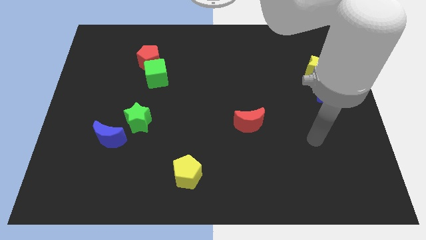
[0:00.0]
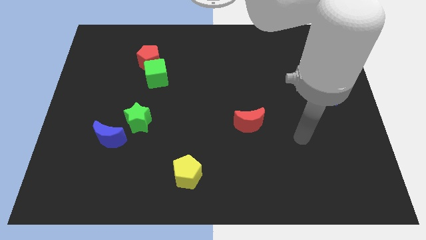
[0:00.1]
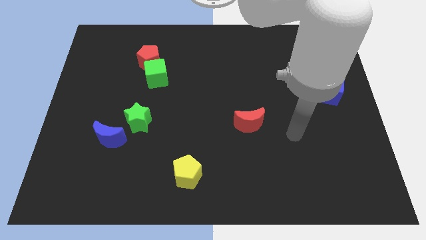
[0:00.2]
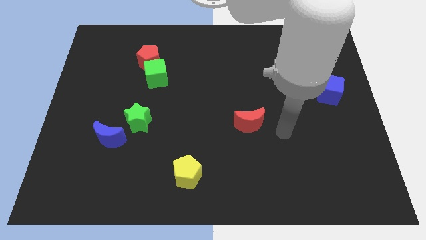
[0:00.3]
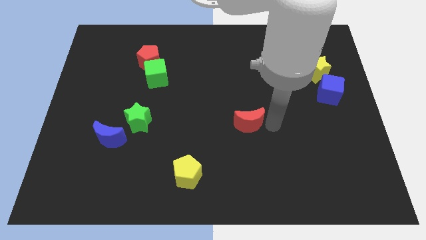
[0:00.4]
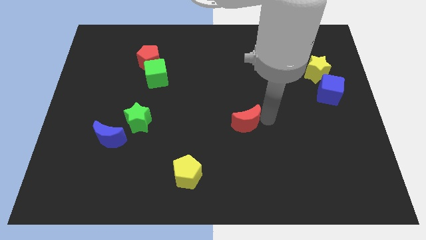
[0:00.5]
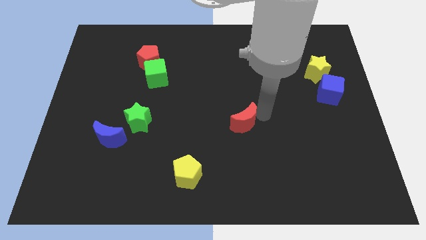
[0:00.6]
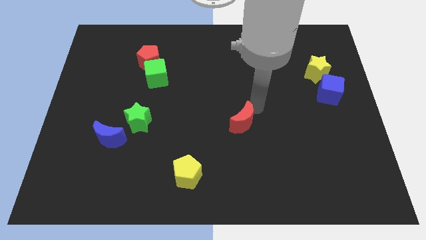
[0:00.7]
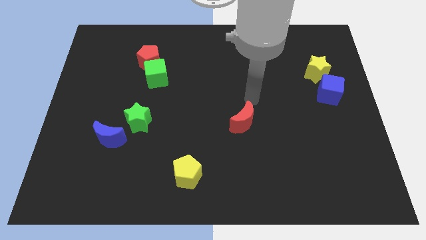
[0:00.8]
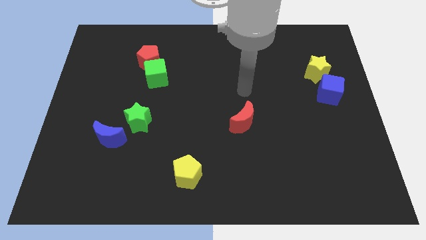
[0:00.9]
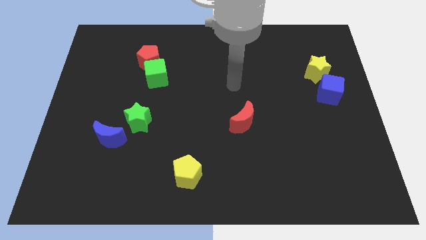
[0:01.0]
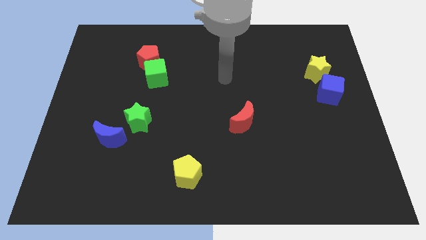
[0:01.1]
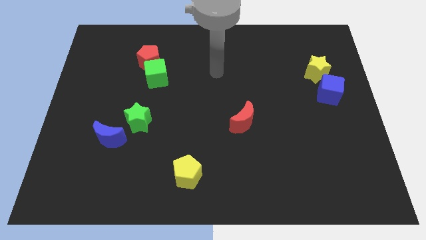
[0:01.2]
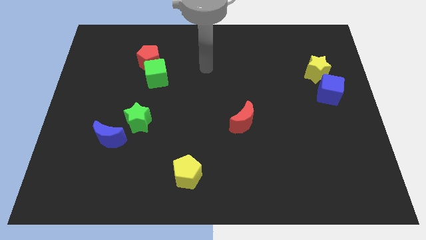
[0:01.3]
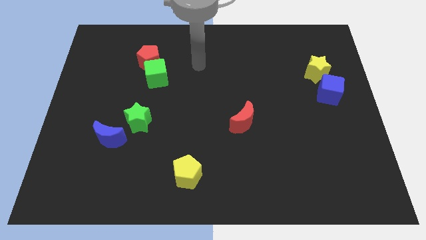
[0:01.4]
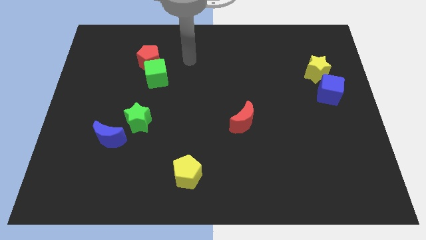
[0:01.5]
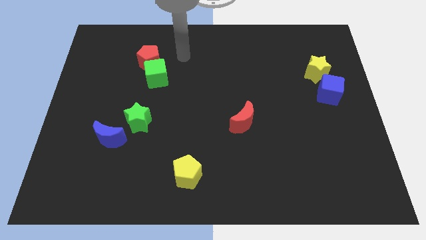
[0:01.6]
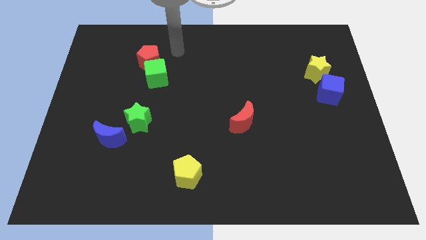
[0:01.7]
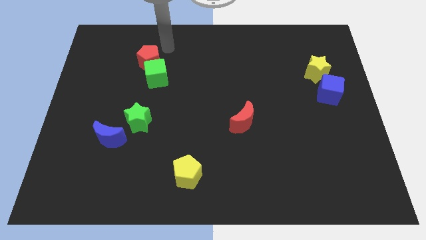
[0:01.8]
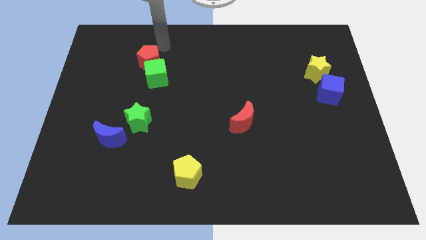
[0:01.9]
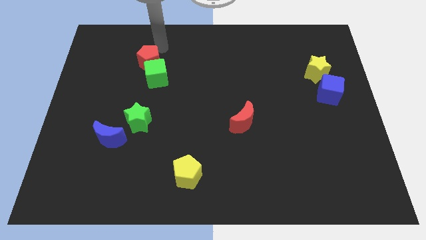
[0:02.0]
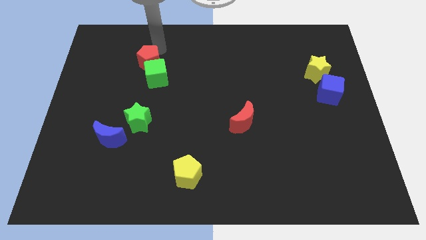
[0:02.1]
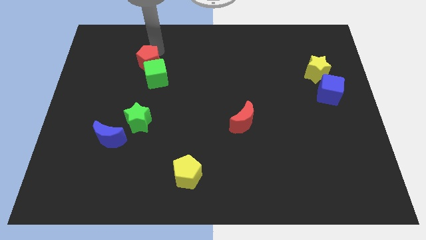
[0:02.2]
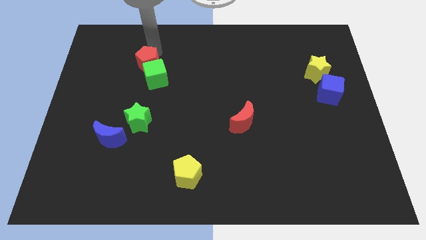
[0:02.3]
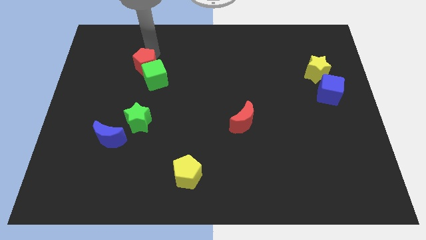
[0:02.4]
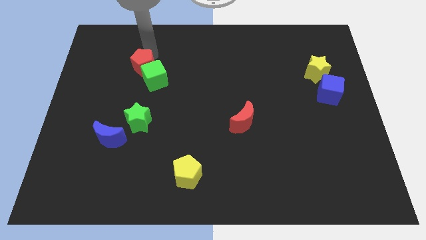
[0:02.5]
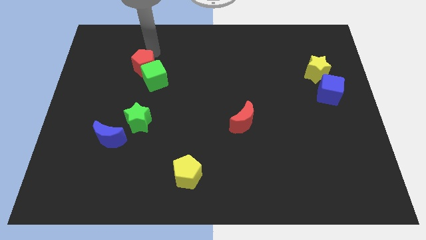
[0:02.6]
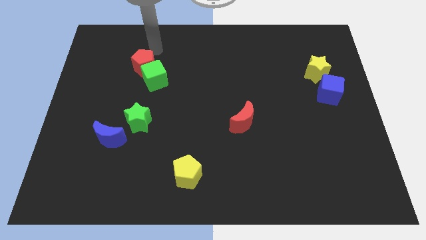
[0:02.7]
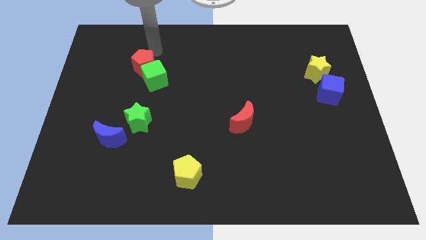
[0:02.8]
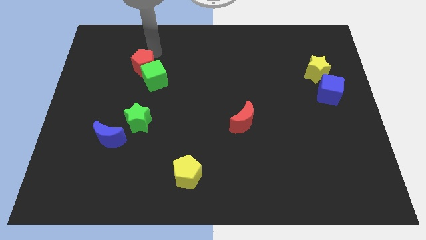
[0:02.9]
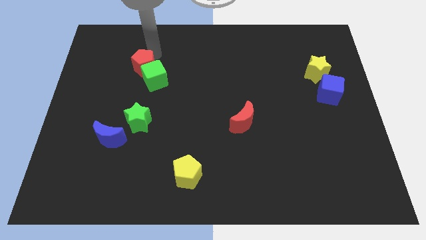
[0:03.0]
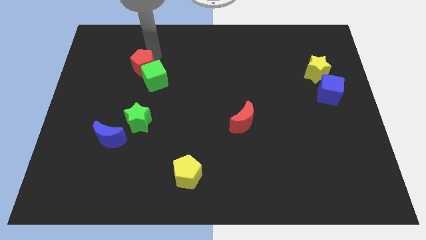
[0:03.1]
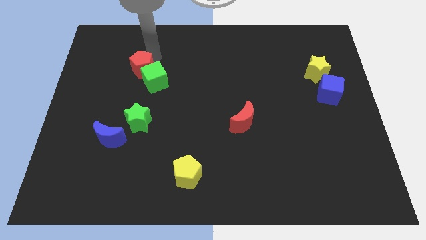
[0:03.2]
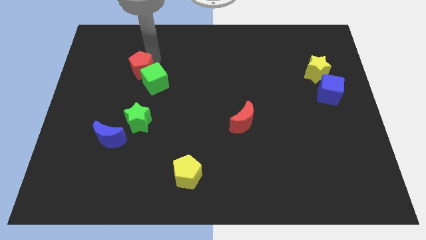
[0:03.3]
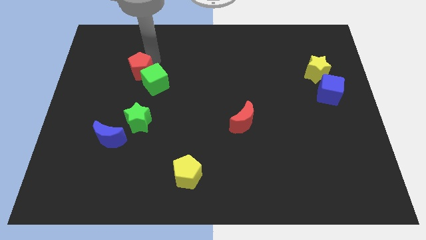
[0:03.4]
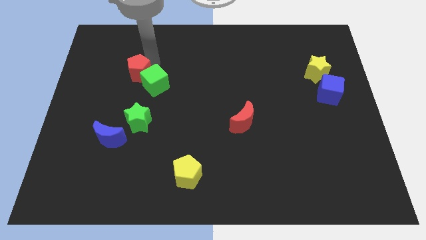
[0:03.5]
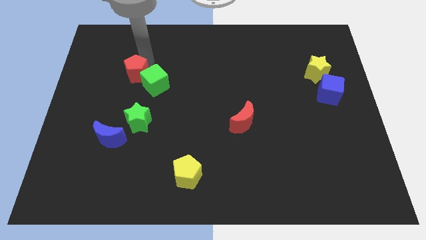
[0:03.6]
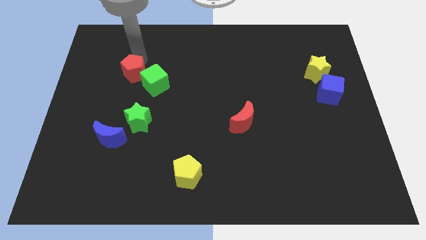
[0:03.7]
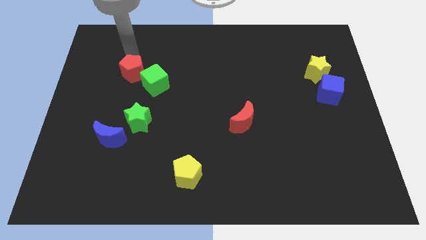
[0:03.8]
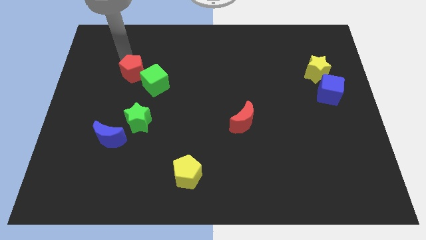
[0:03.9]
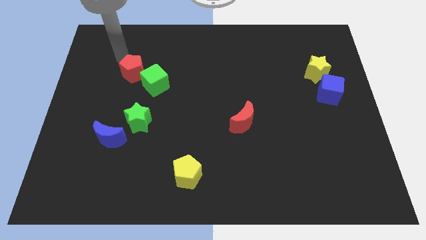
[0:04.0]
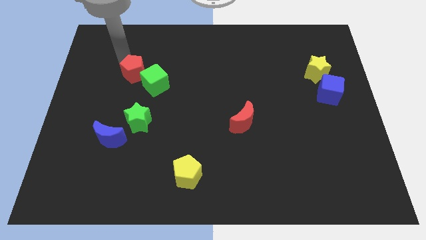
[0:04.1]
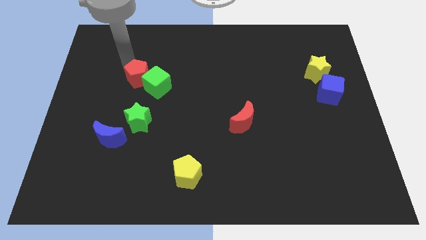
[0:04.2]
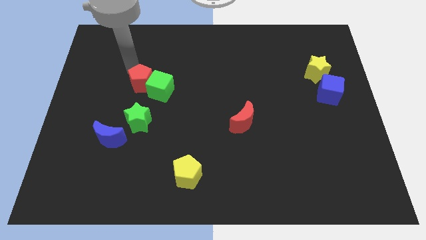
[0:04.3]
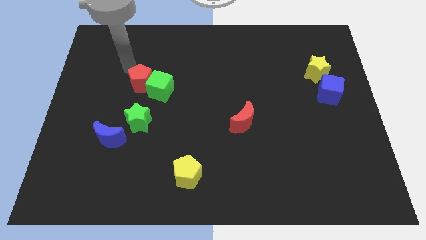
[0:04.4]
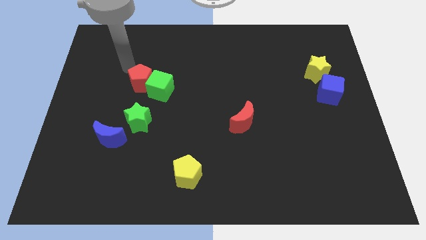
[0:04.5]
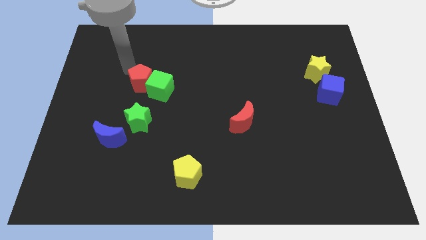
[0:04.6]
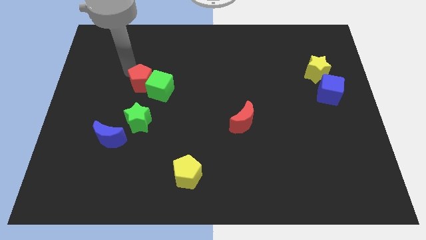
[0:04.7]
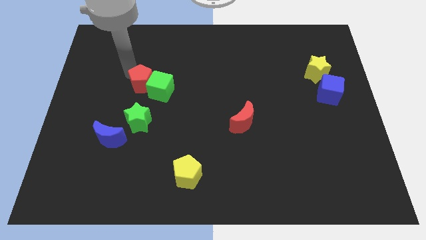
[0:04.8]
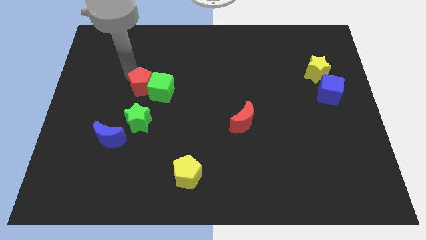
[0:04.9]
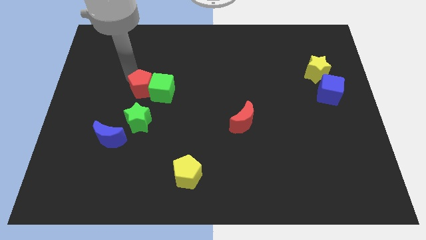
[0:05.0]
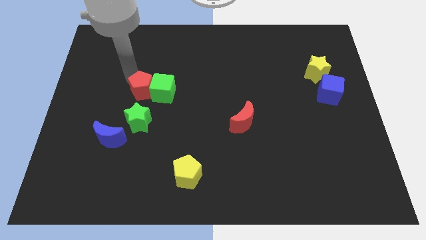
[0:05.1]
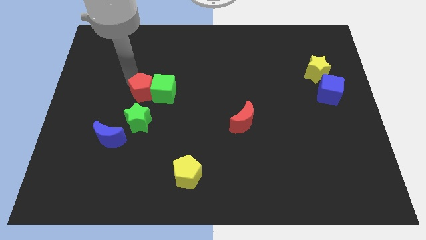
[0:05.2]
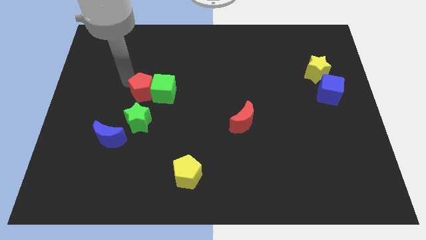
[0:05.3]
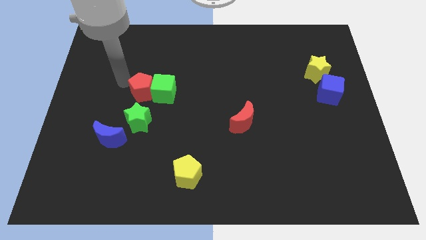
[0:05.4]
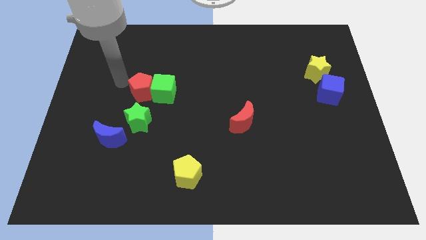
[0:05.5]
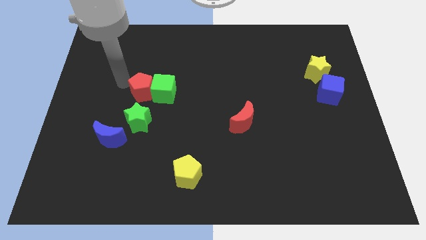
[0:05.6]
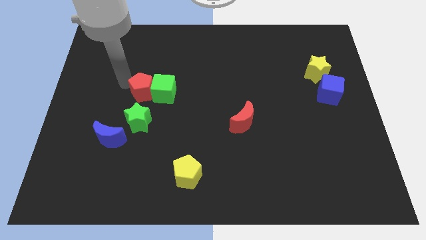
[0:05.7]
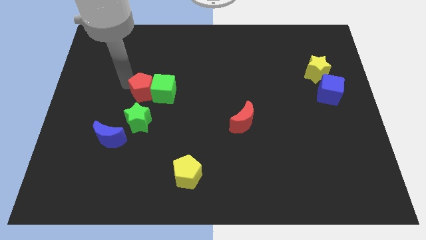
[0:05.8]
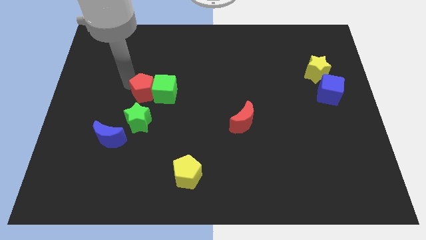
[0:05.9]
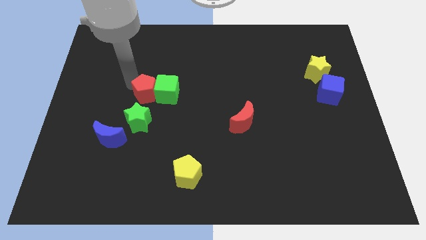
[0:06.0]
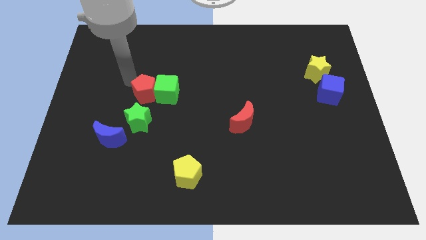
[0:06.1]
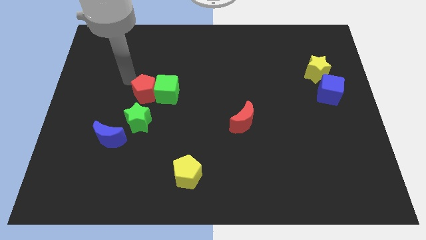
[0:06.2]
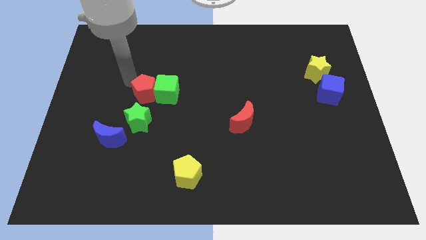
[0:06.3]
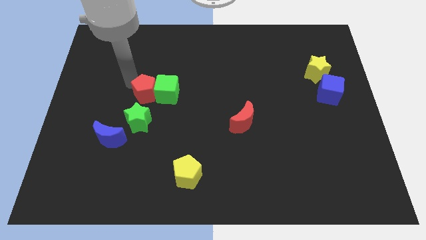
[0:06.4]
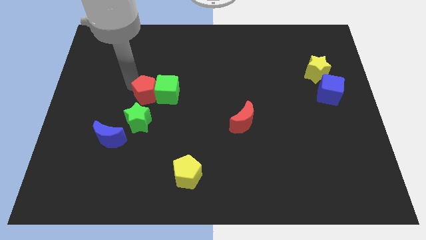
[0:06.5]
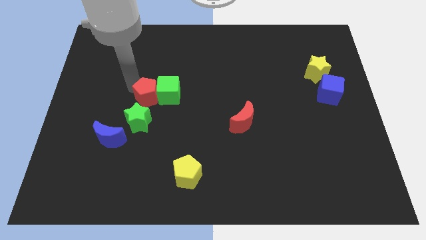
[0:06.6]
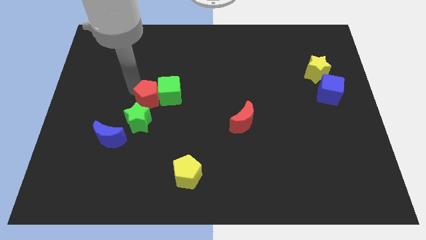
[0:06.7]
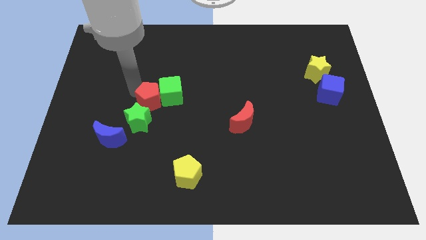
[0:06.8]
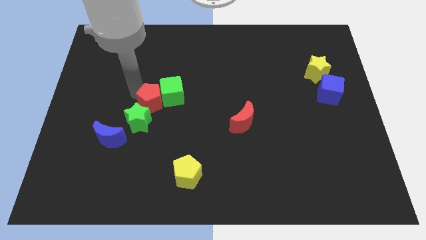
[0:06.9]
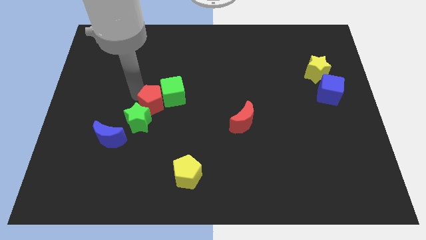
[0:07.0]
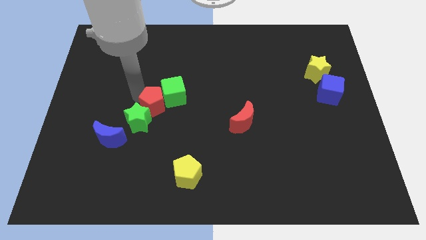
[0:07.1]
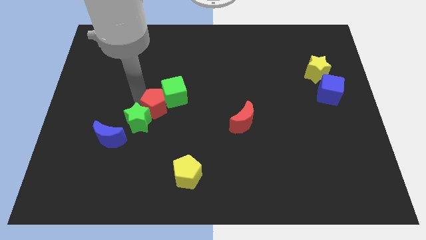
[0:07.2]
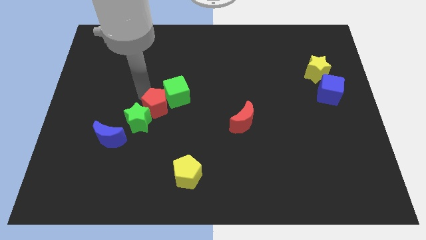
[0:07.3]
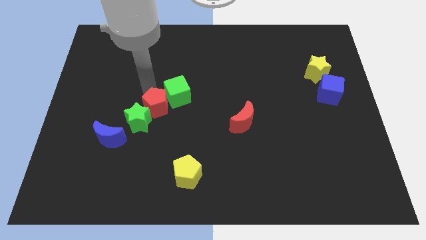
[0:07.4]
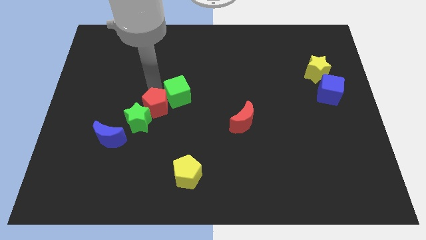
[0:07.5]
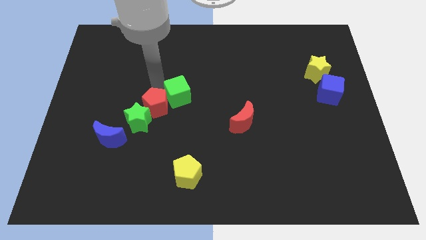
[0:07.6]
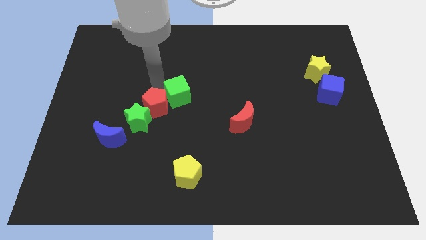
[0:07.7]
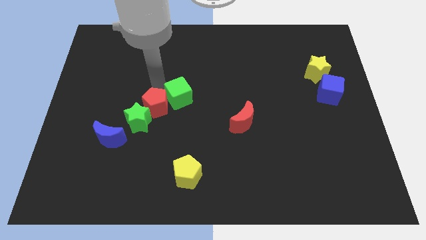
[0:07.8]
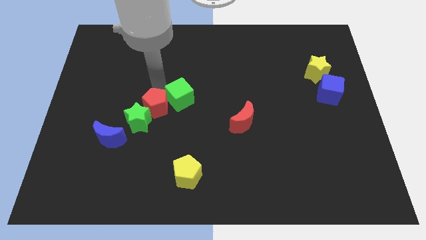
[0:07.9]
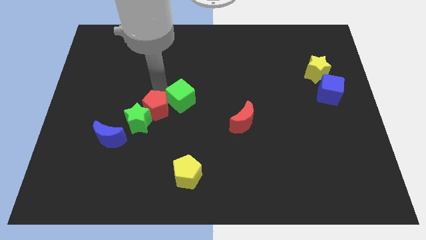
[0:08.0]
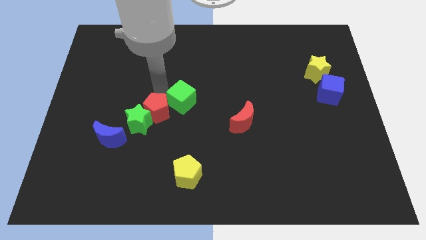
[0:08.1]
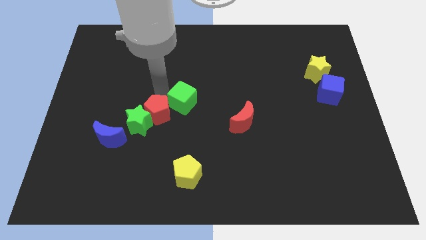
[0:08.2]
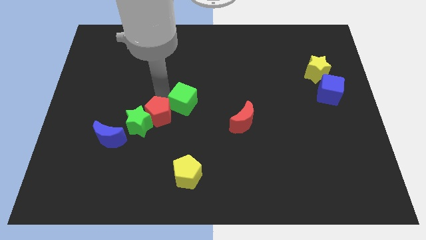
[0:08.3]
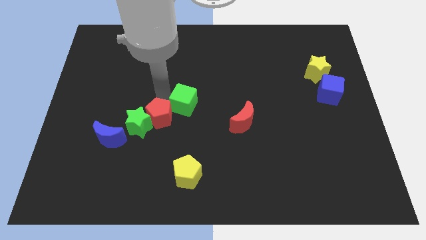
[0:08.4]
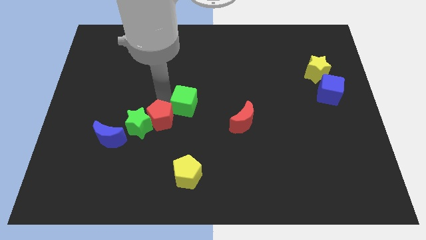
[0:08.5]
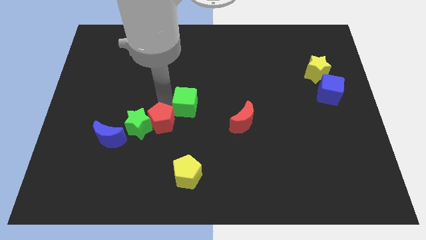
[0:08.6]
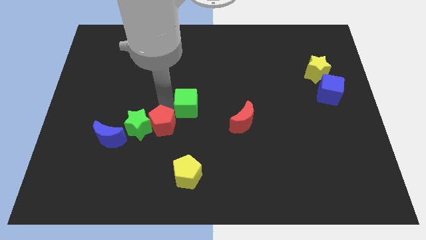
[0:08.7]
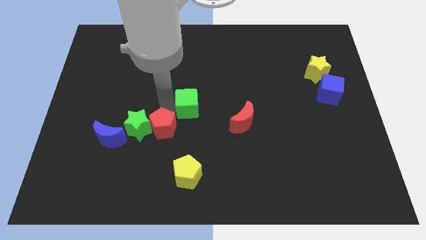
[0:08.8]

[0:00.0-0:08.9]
push the red pentagon downwards
